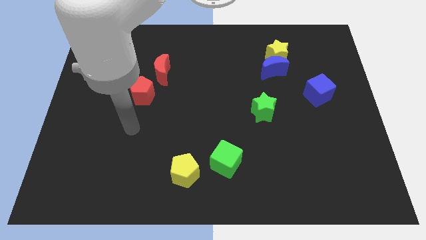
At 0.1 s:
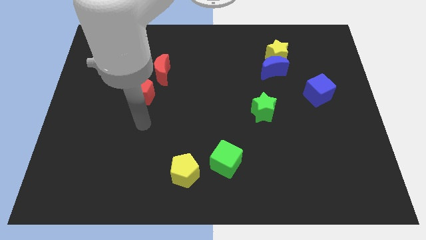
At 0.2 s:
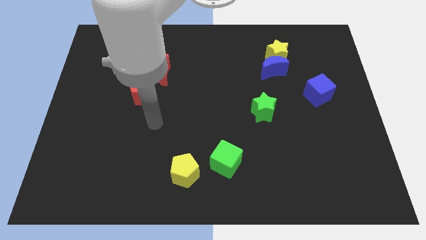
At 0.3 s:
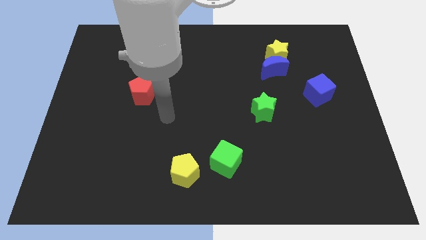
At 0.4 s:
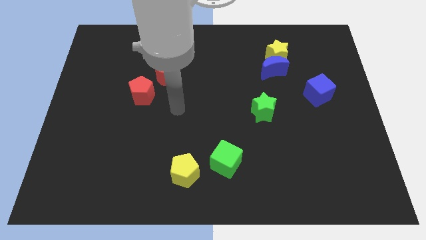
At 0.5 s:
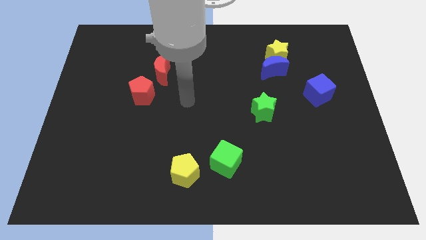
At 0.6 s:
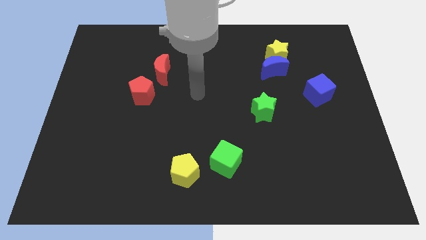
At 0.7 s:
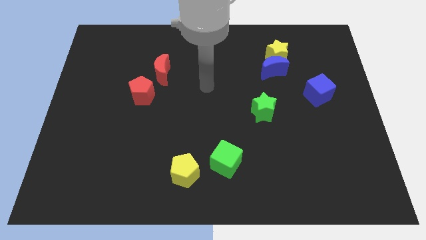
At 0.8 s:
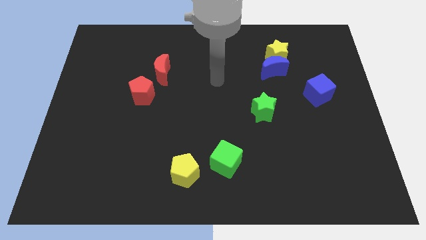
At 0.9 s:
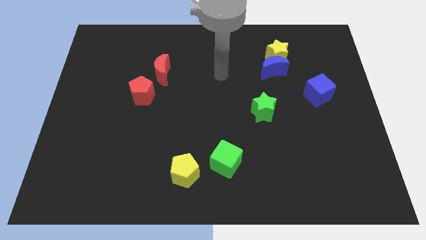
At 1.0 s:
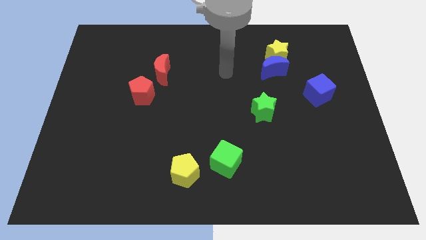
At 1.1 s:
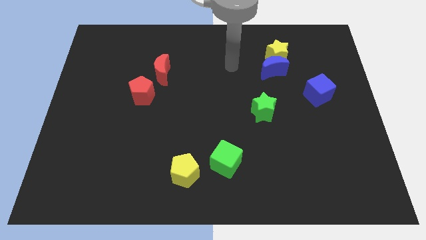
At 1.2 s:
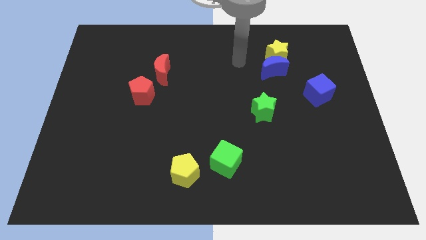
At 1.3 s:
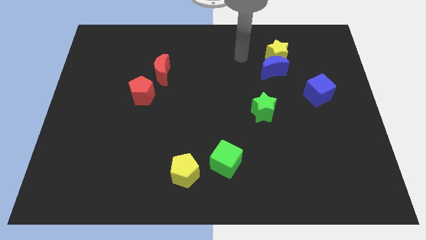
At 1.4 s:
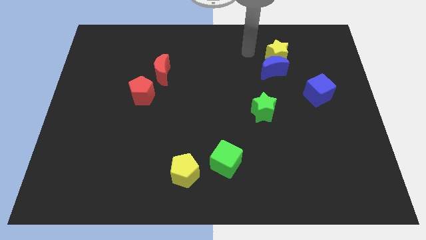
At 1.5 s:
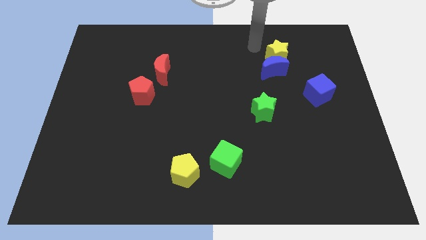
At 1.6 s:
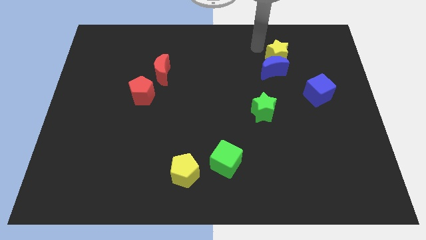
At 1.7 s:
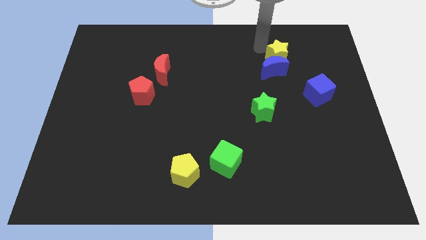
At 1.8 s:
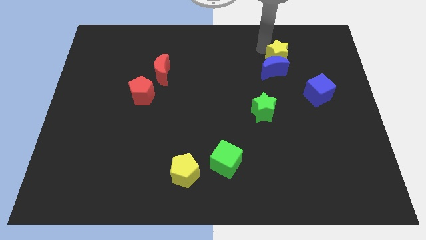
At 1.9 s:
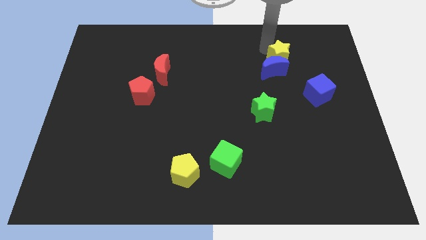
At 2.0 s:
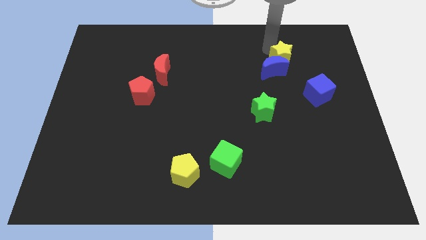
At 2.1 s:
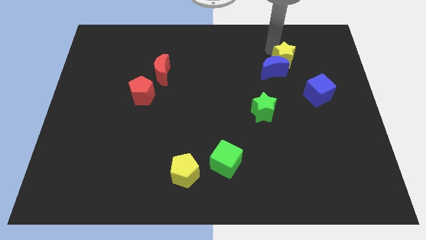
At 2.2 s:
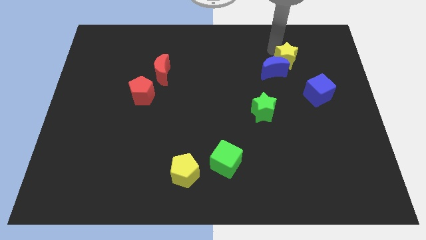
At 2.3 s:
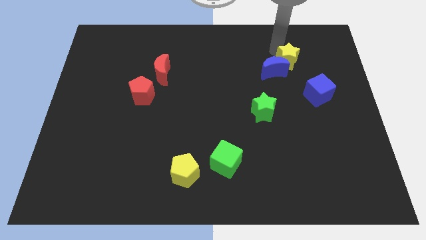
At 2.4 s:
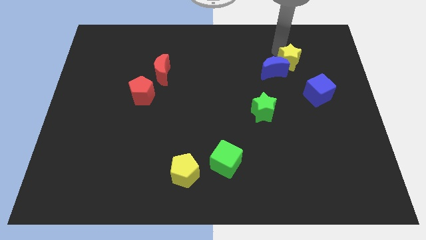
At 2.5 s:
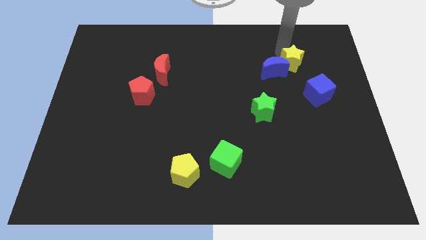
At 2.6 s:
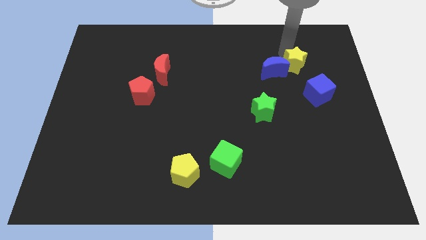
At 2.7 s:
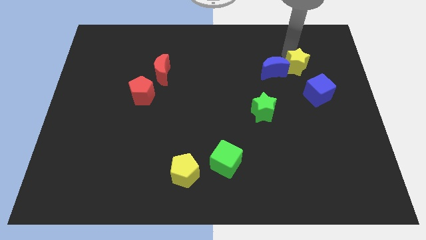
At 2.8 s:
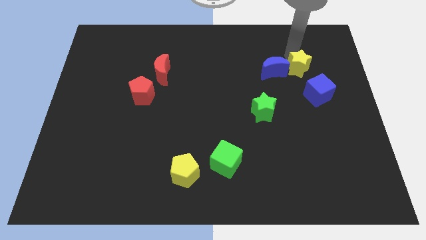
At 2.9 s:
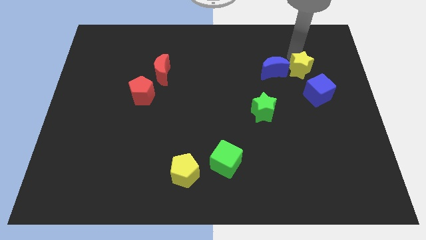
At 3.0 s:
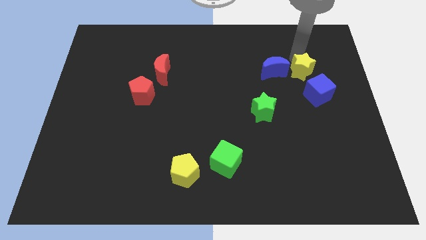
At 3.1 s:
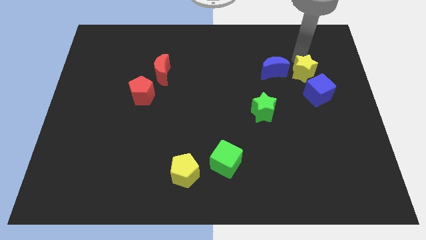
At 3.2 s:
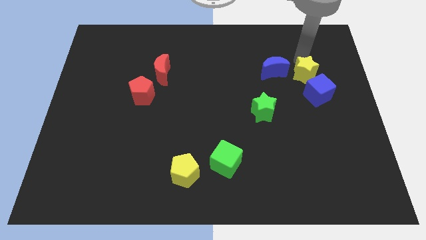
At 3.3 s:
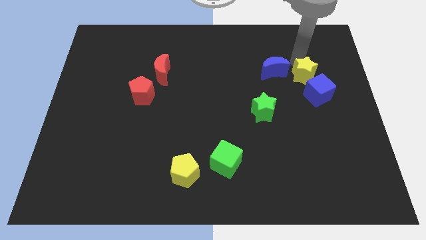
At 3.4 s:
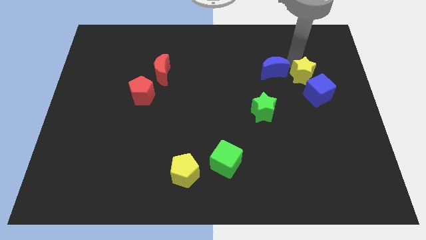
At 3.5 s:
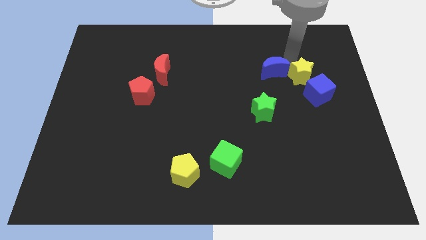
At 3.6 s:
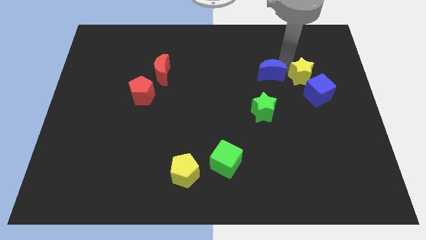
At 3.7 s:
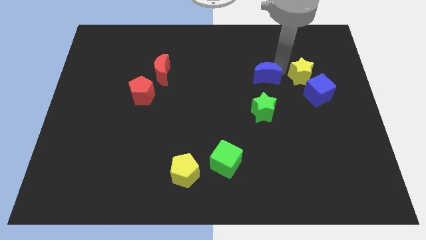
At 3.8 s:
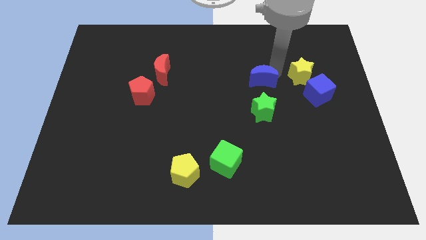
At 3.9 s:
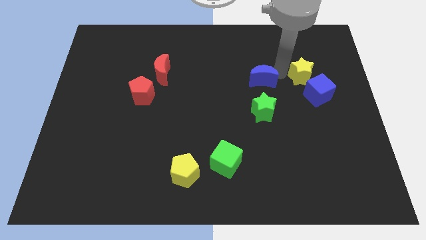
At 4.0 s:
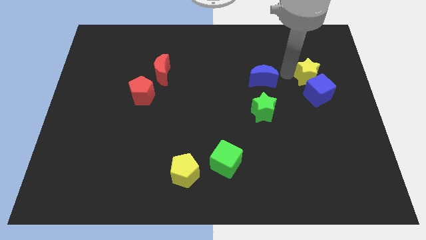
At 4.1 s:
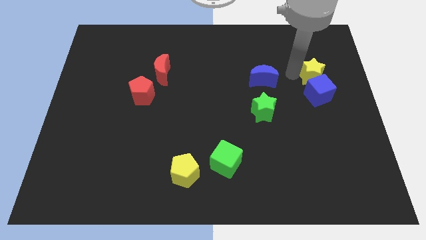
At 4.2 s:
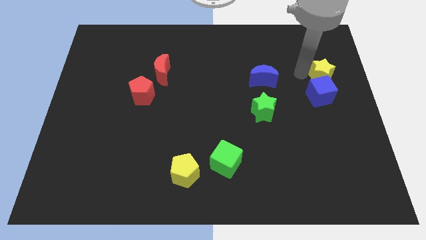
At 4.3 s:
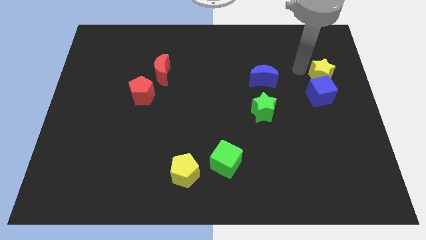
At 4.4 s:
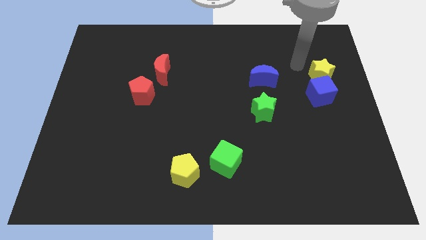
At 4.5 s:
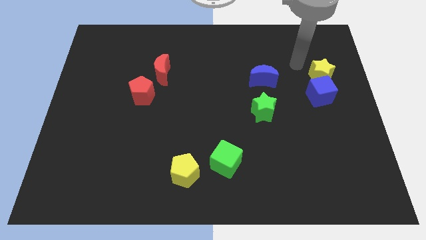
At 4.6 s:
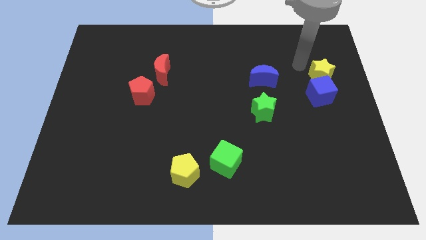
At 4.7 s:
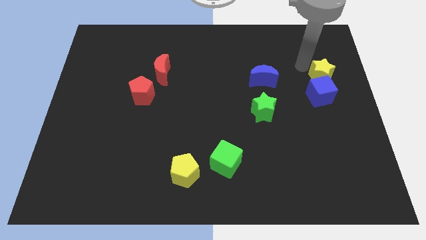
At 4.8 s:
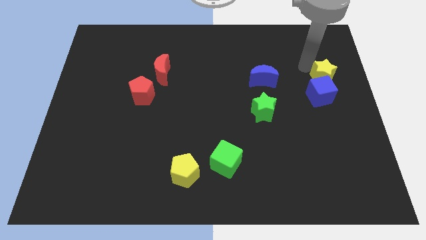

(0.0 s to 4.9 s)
slide the yellow star to the center right

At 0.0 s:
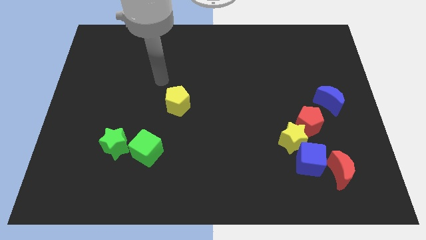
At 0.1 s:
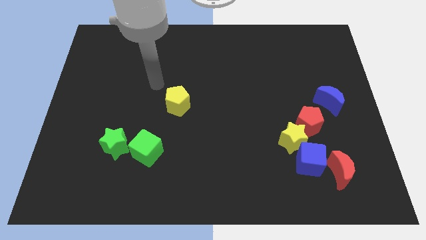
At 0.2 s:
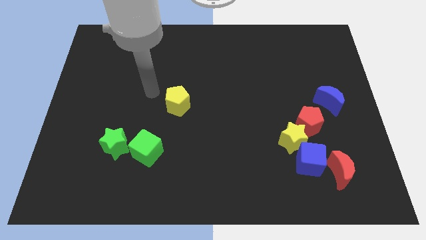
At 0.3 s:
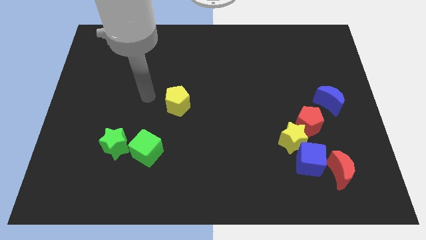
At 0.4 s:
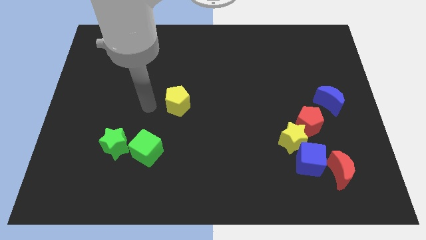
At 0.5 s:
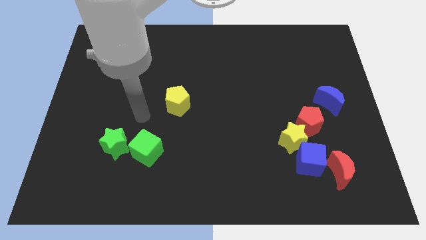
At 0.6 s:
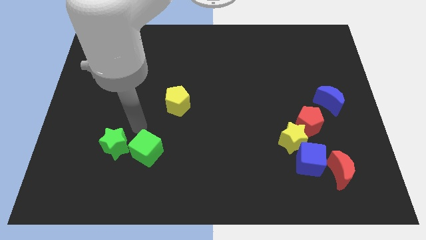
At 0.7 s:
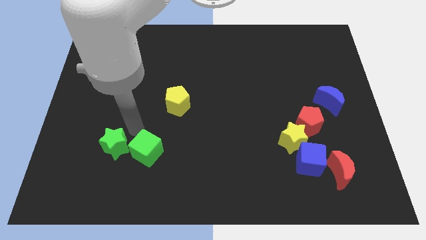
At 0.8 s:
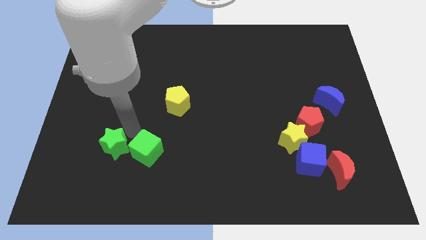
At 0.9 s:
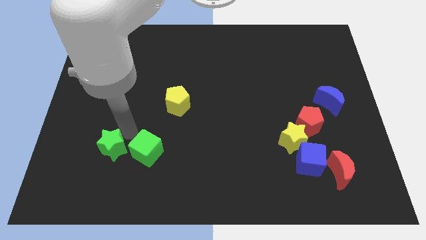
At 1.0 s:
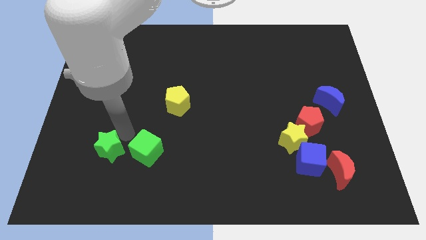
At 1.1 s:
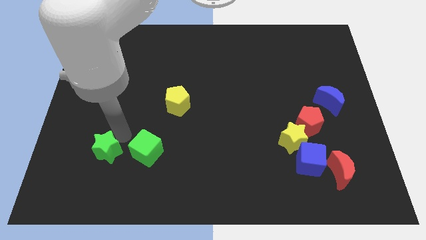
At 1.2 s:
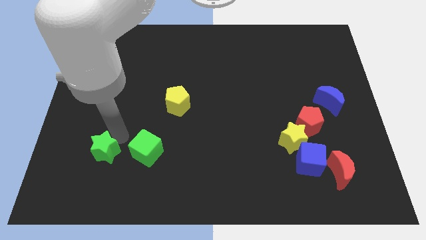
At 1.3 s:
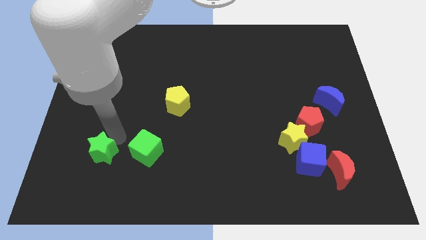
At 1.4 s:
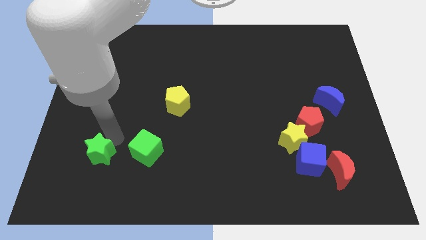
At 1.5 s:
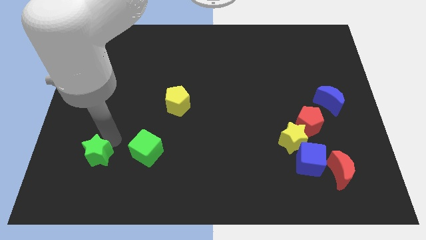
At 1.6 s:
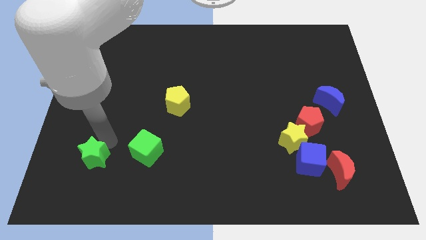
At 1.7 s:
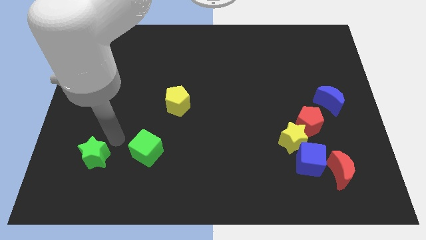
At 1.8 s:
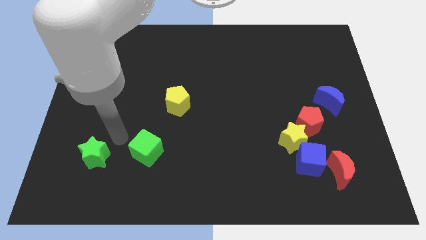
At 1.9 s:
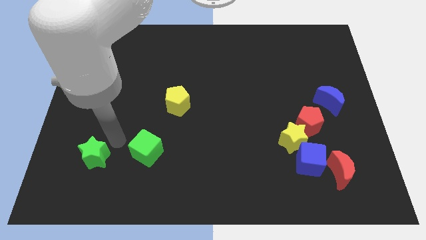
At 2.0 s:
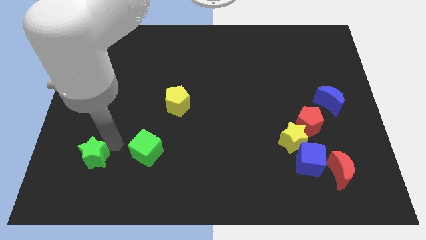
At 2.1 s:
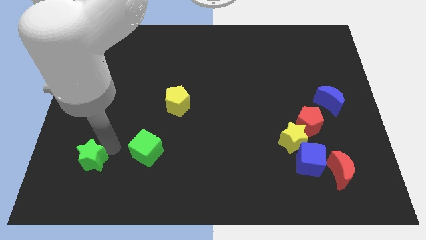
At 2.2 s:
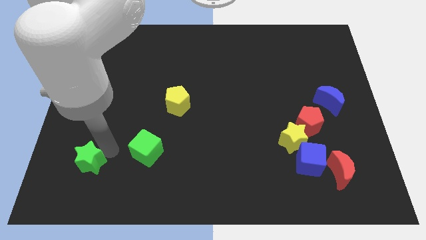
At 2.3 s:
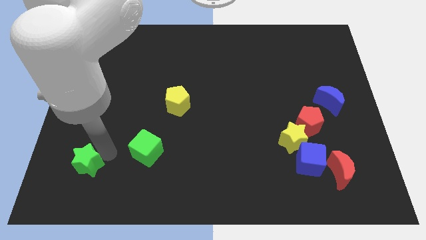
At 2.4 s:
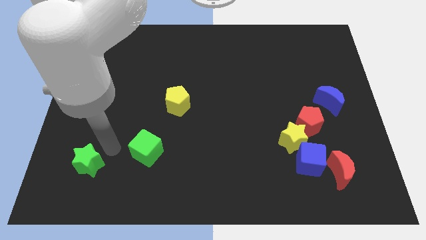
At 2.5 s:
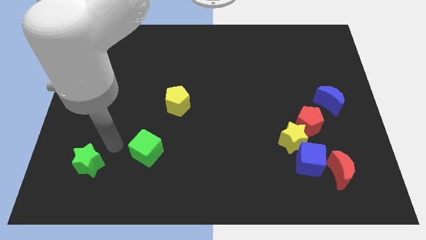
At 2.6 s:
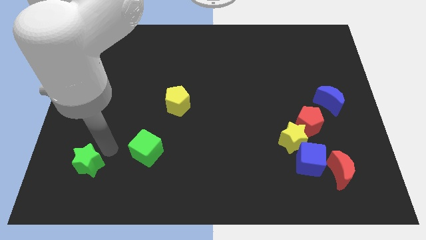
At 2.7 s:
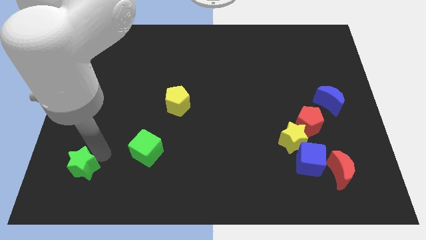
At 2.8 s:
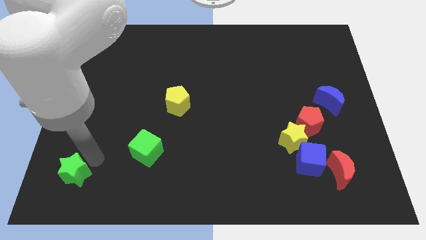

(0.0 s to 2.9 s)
put the green star to the lower left corner
